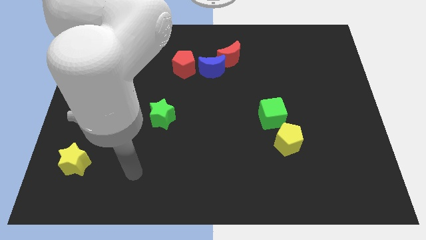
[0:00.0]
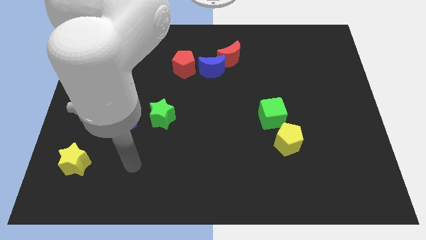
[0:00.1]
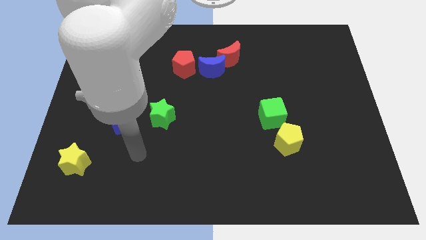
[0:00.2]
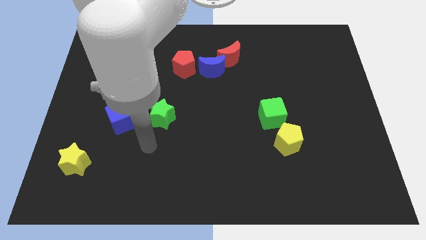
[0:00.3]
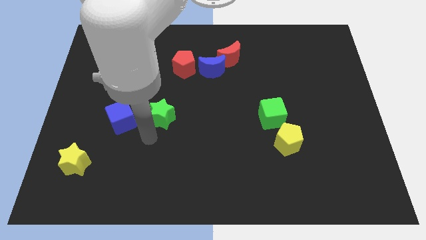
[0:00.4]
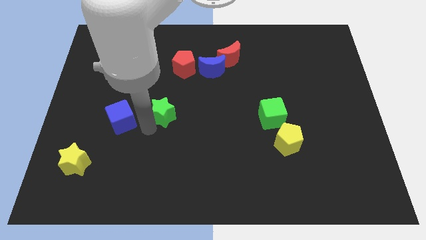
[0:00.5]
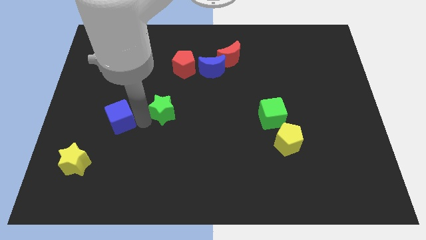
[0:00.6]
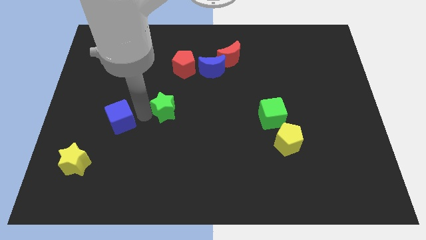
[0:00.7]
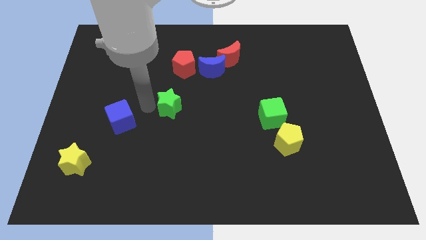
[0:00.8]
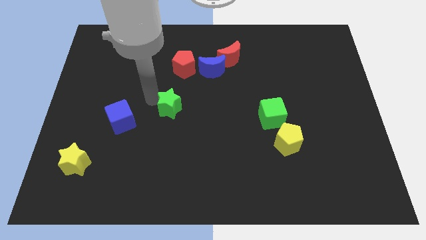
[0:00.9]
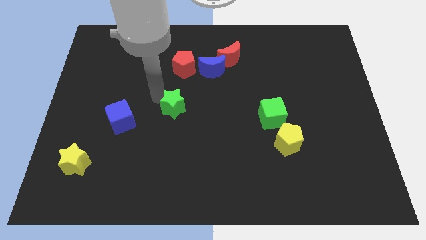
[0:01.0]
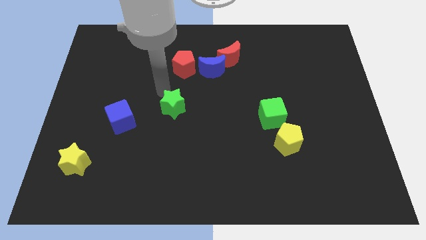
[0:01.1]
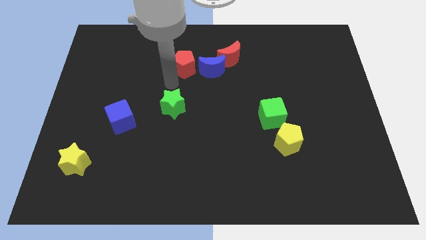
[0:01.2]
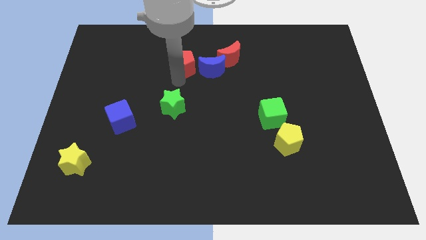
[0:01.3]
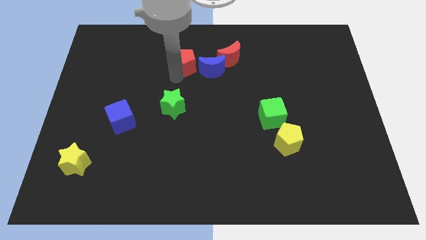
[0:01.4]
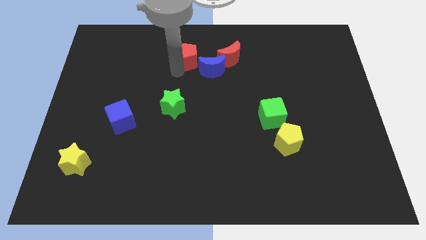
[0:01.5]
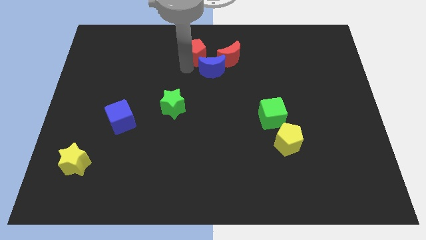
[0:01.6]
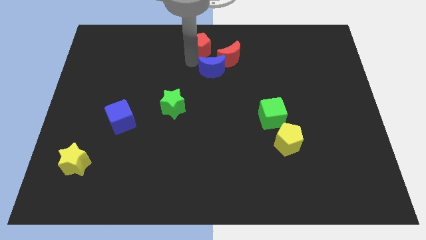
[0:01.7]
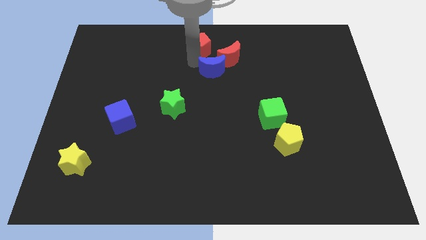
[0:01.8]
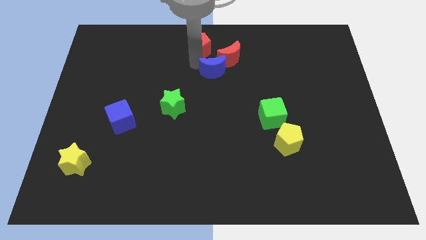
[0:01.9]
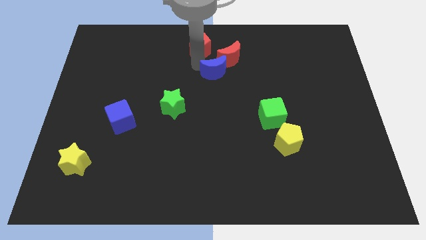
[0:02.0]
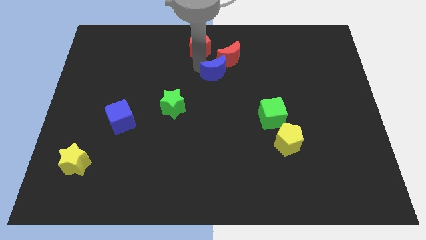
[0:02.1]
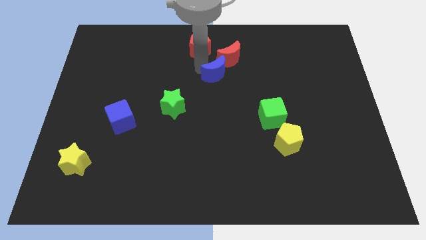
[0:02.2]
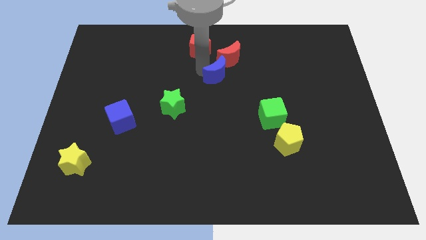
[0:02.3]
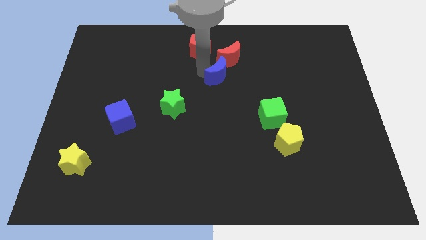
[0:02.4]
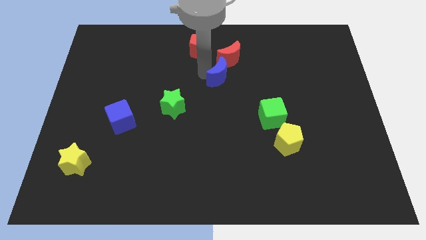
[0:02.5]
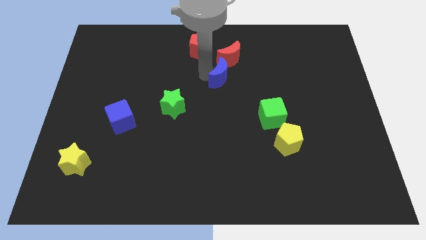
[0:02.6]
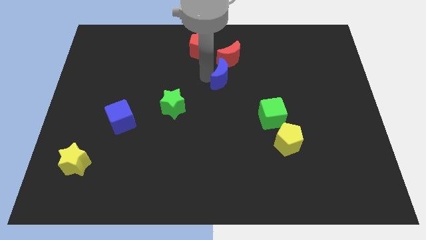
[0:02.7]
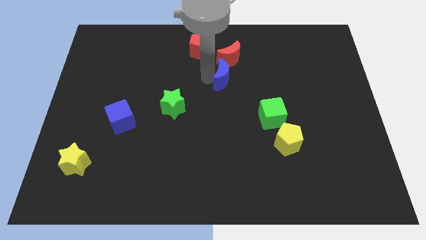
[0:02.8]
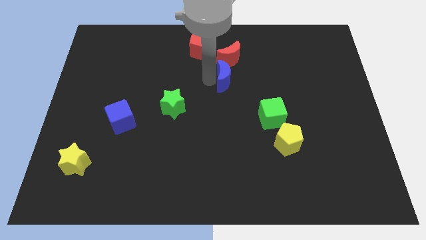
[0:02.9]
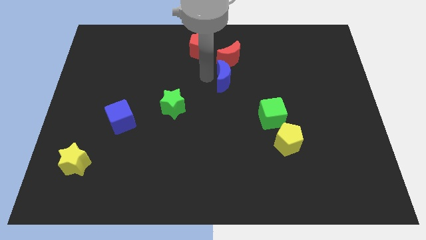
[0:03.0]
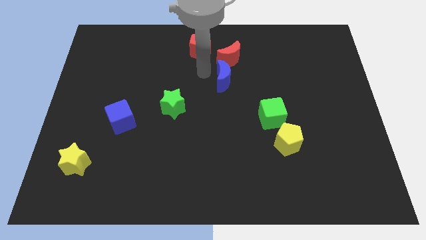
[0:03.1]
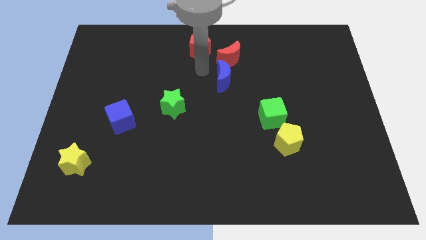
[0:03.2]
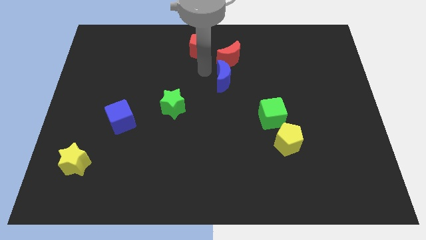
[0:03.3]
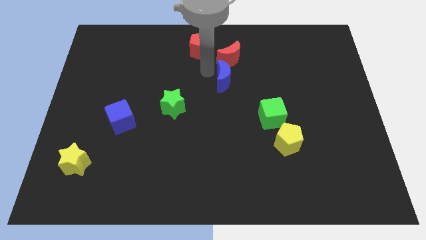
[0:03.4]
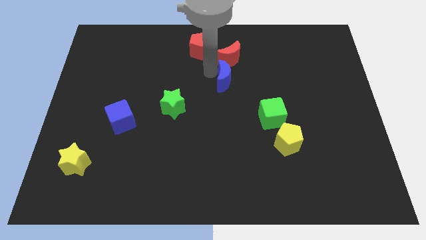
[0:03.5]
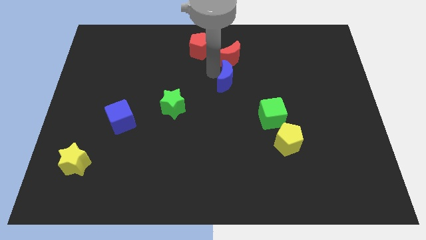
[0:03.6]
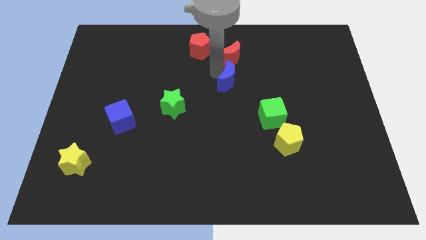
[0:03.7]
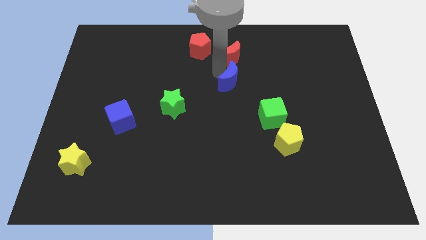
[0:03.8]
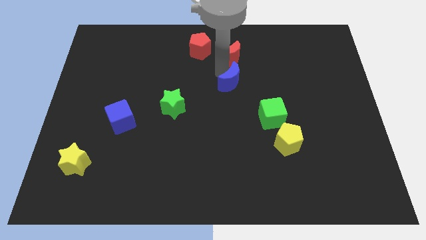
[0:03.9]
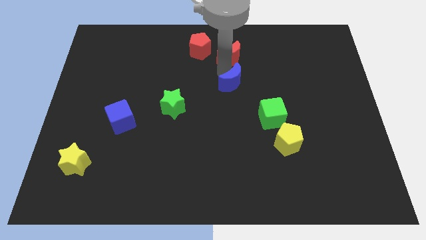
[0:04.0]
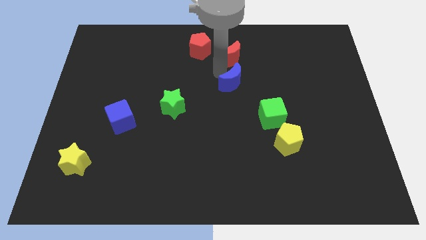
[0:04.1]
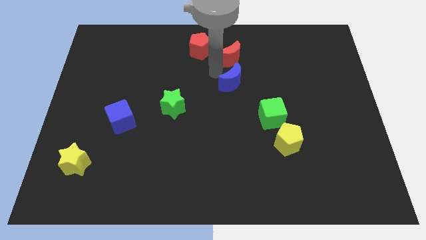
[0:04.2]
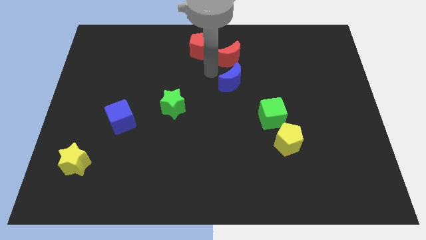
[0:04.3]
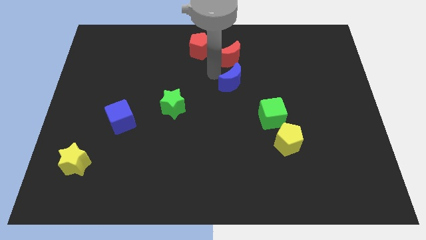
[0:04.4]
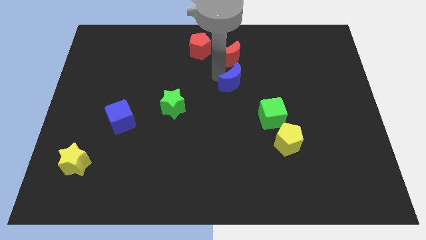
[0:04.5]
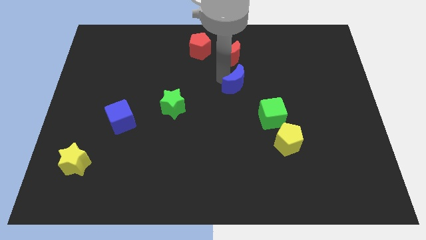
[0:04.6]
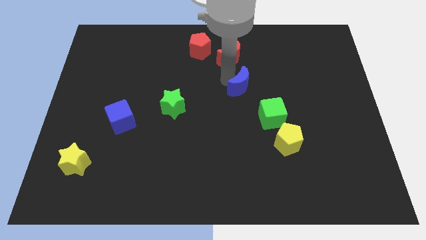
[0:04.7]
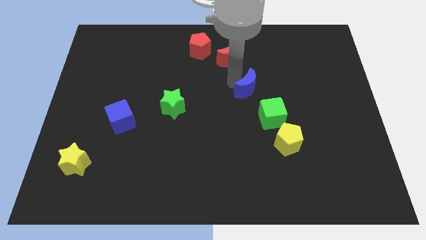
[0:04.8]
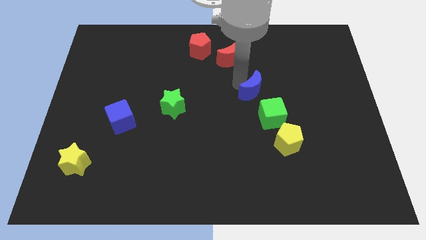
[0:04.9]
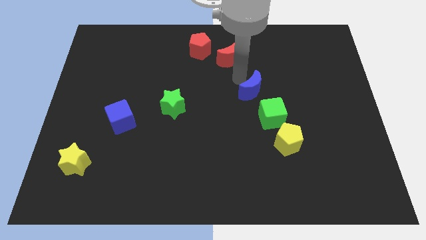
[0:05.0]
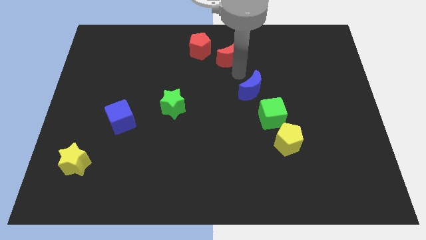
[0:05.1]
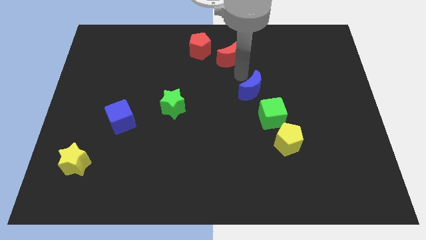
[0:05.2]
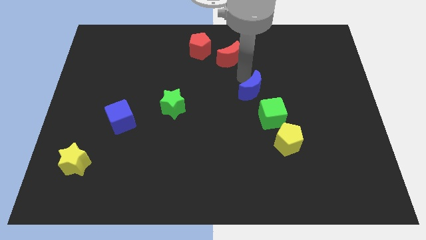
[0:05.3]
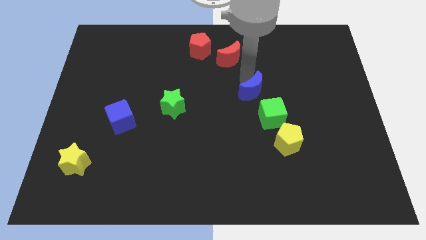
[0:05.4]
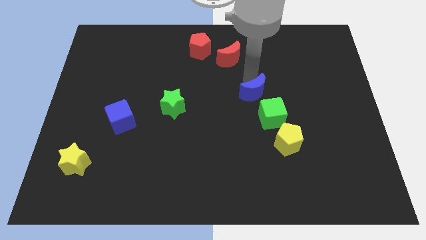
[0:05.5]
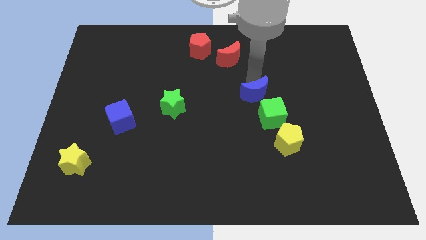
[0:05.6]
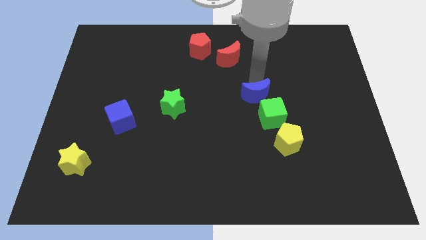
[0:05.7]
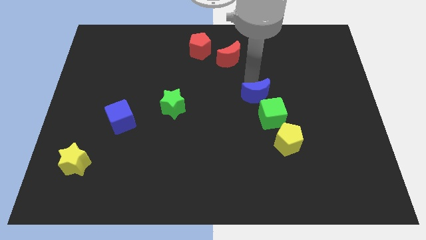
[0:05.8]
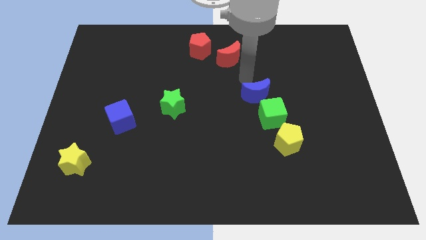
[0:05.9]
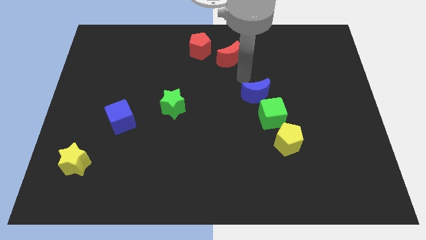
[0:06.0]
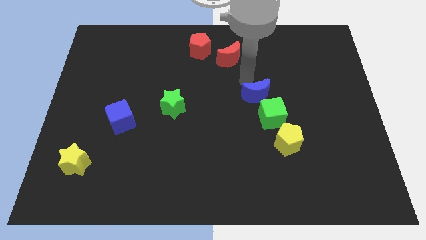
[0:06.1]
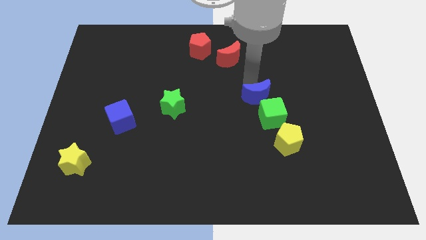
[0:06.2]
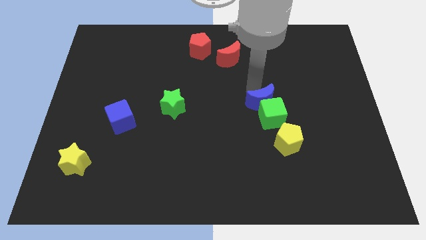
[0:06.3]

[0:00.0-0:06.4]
slide the blue moon next to the green cube

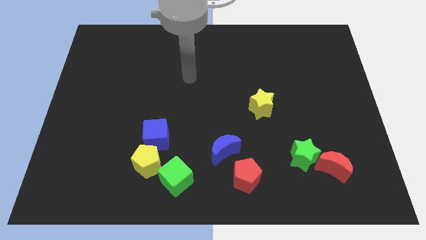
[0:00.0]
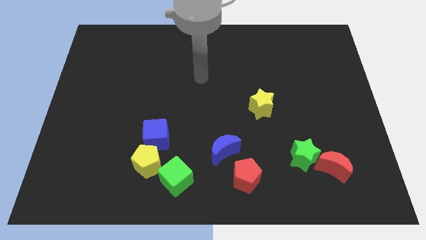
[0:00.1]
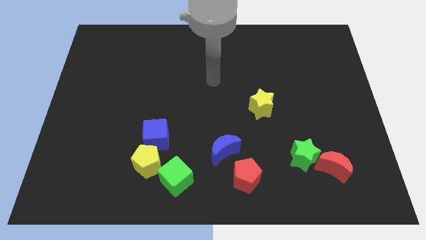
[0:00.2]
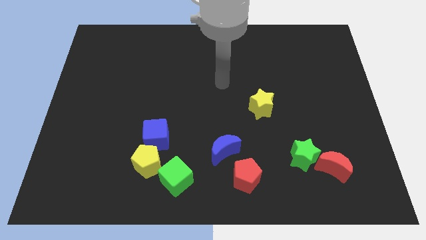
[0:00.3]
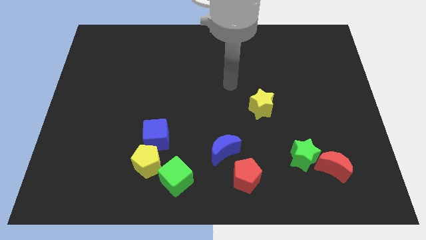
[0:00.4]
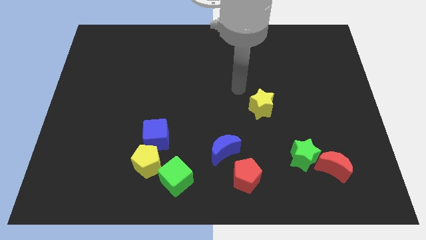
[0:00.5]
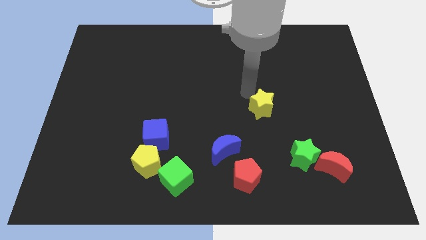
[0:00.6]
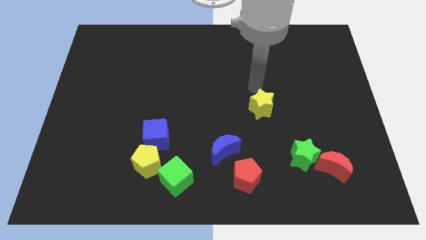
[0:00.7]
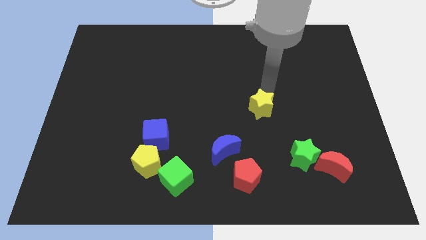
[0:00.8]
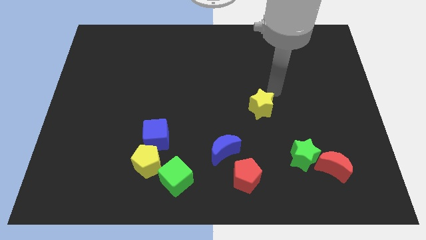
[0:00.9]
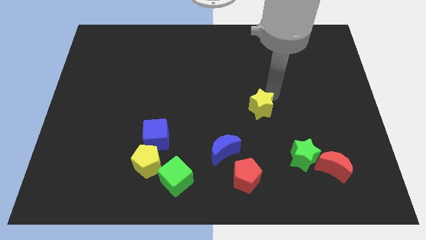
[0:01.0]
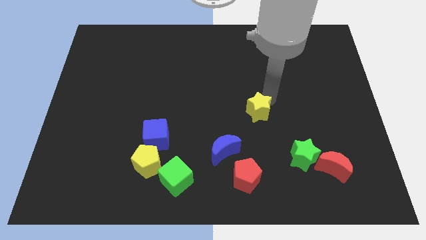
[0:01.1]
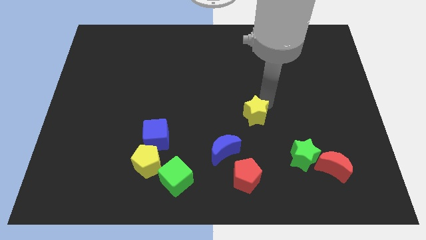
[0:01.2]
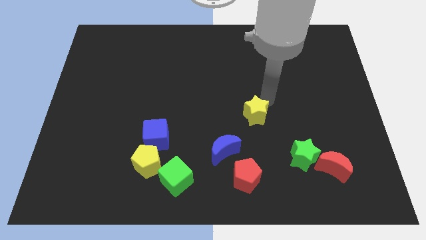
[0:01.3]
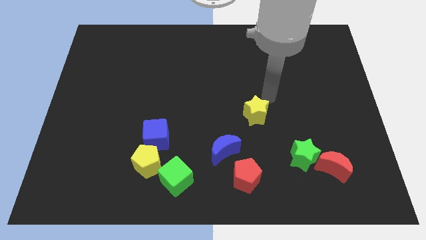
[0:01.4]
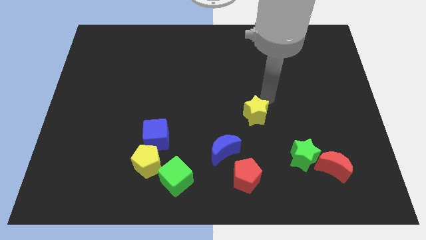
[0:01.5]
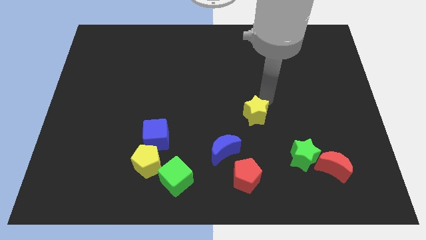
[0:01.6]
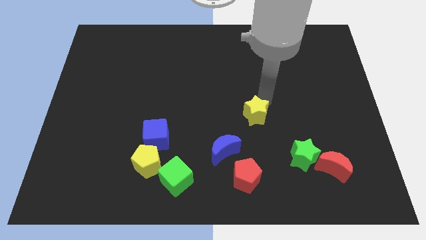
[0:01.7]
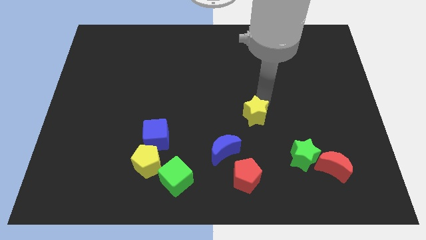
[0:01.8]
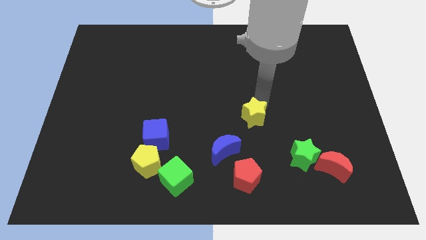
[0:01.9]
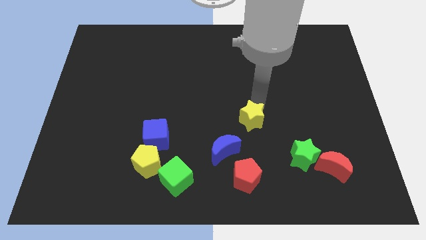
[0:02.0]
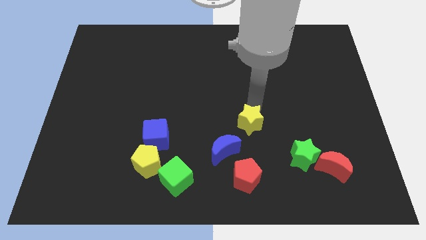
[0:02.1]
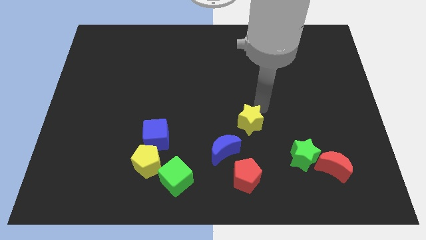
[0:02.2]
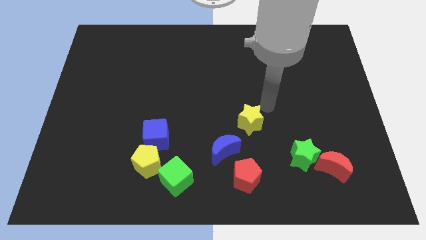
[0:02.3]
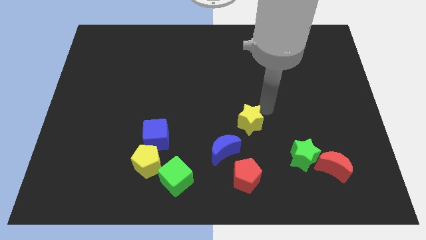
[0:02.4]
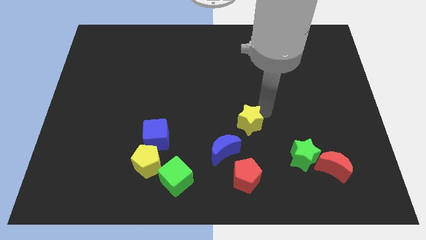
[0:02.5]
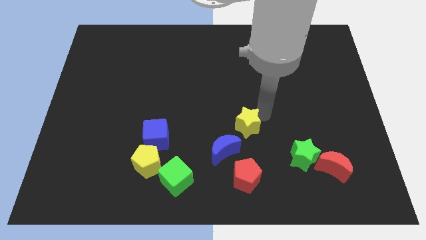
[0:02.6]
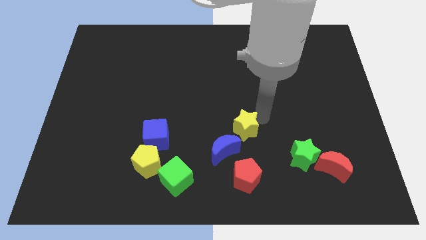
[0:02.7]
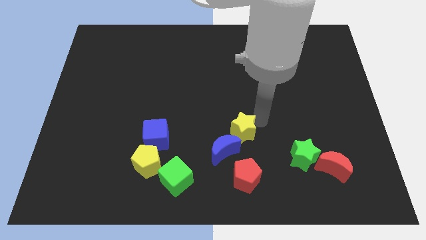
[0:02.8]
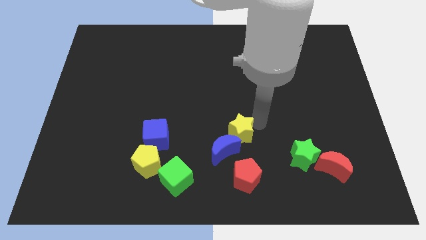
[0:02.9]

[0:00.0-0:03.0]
move the yellow star towards the blue moon
